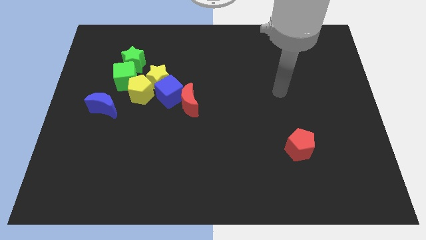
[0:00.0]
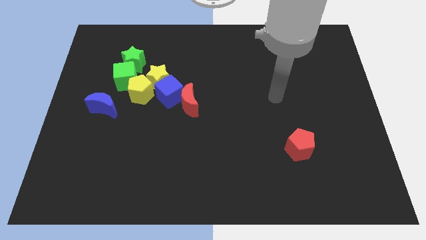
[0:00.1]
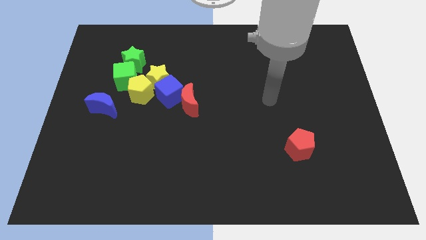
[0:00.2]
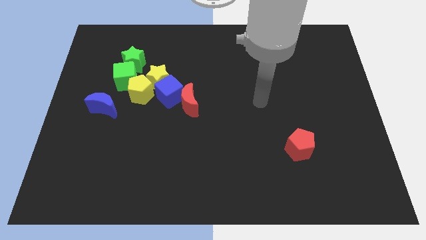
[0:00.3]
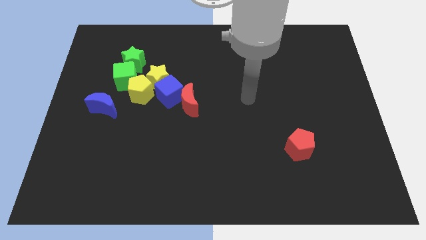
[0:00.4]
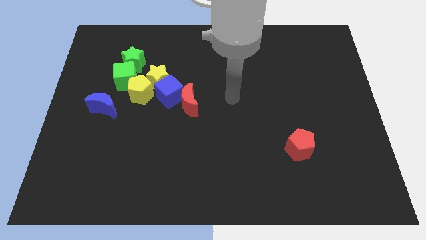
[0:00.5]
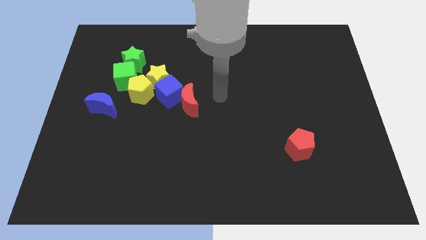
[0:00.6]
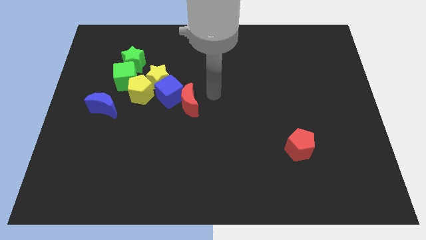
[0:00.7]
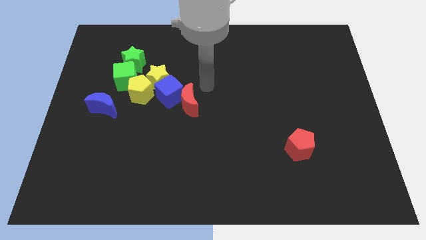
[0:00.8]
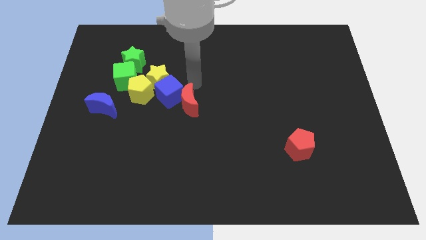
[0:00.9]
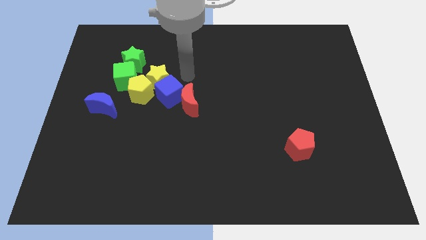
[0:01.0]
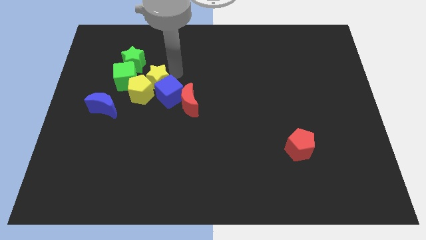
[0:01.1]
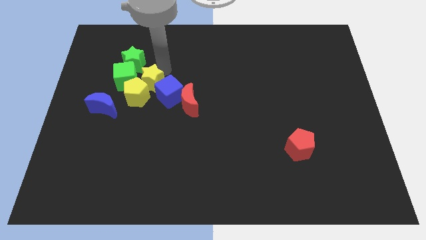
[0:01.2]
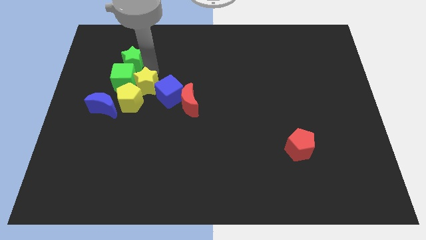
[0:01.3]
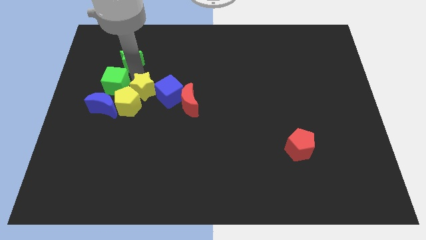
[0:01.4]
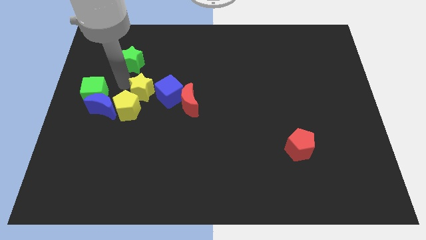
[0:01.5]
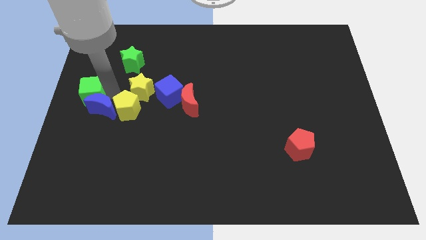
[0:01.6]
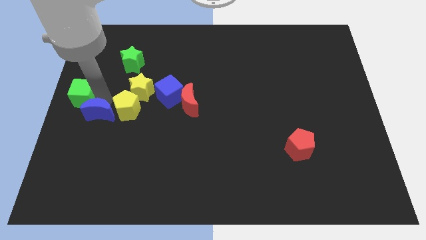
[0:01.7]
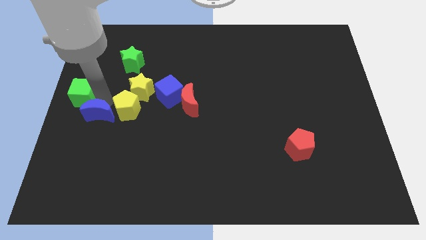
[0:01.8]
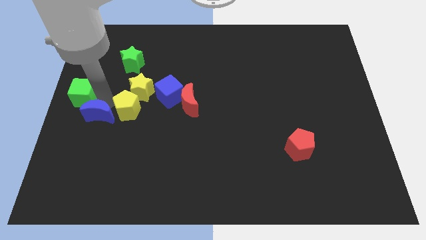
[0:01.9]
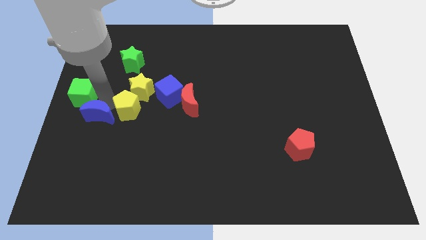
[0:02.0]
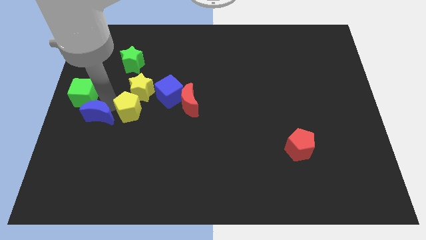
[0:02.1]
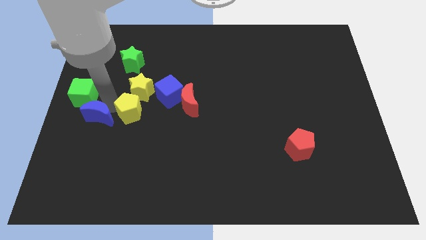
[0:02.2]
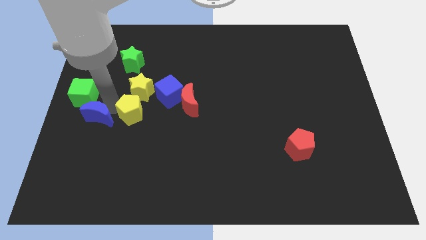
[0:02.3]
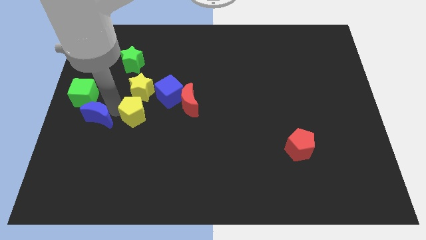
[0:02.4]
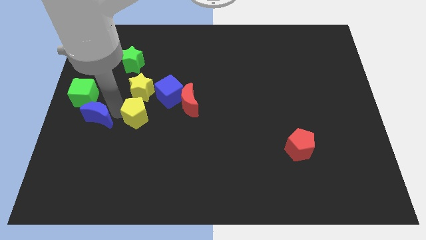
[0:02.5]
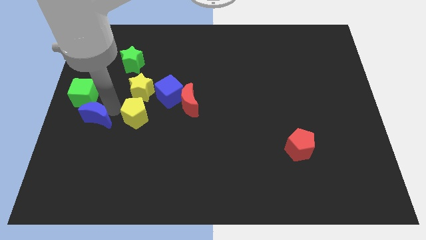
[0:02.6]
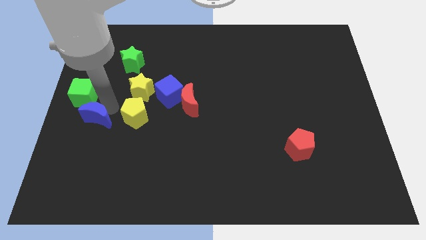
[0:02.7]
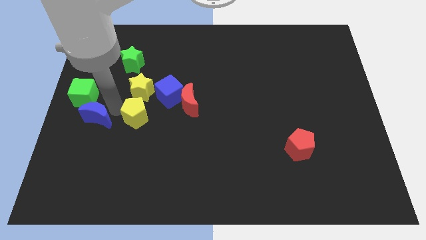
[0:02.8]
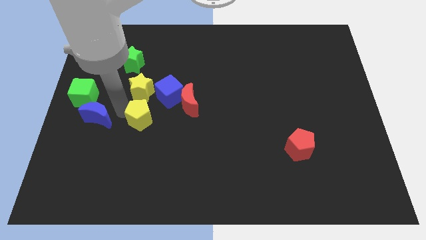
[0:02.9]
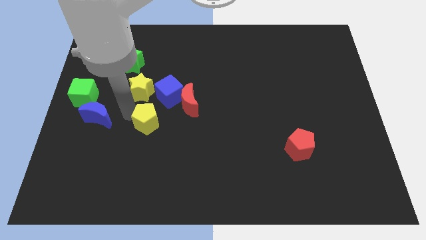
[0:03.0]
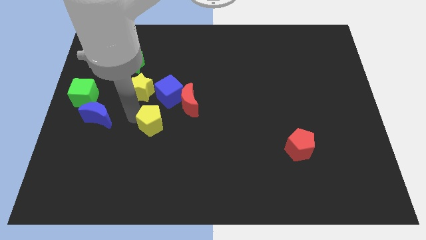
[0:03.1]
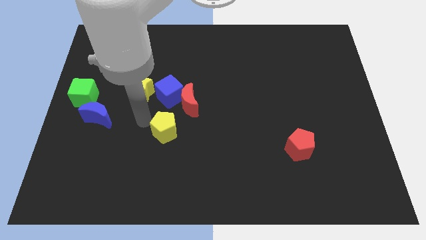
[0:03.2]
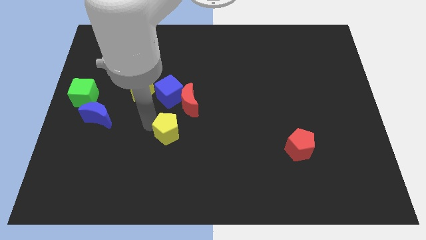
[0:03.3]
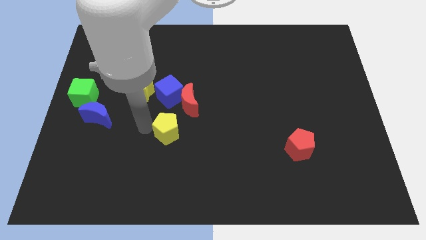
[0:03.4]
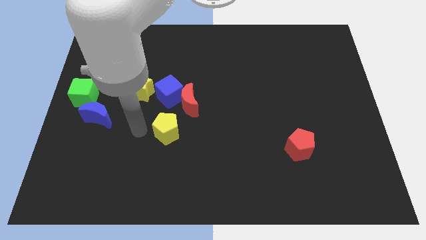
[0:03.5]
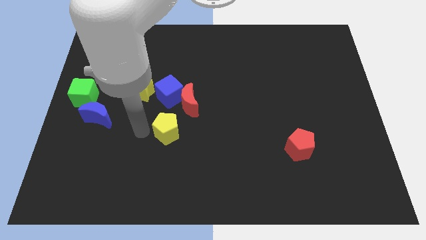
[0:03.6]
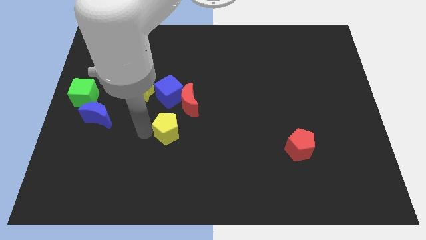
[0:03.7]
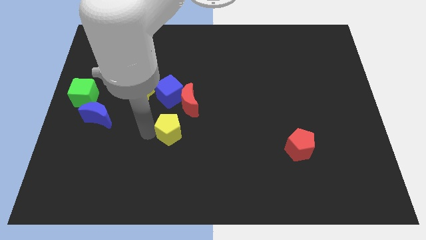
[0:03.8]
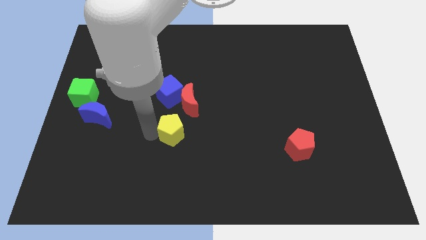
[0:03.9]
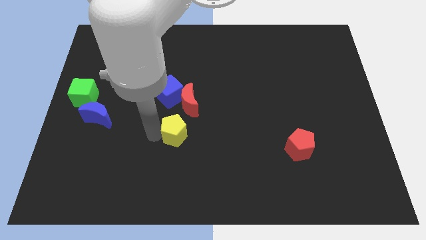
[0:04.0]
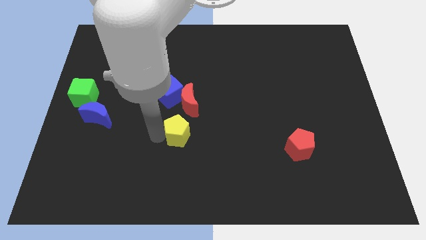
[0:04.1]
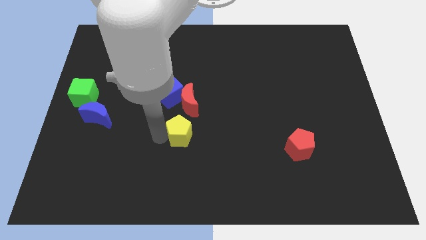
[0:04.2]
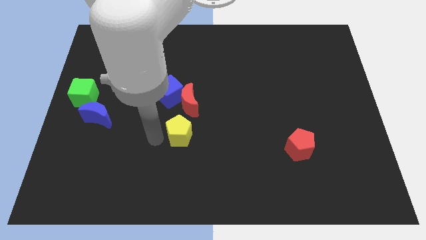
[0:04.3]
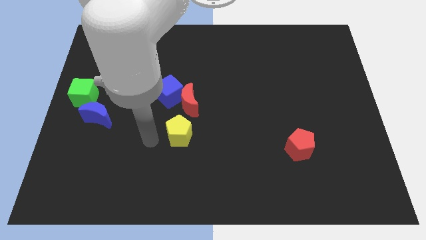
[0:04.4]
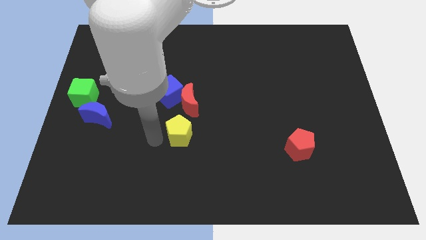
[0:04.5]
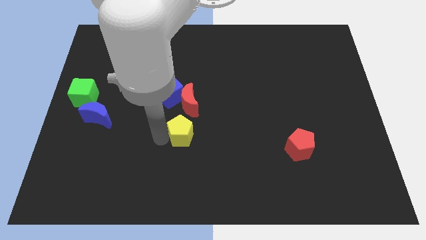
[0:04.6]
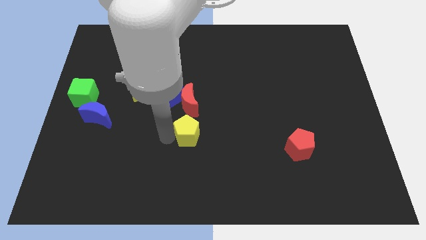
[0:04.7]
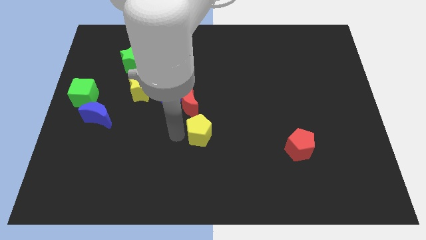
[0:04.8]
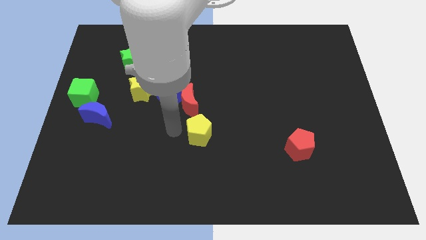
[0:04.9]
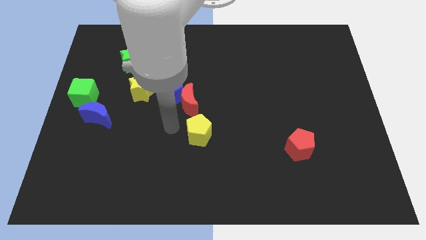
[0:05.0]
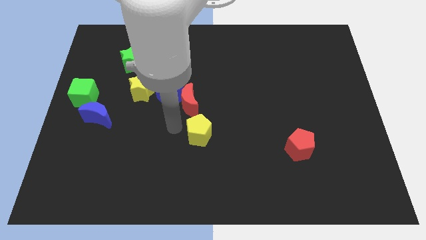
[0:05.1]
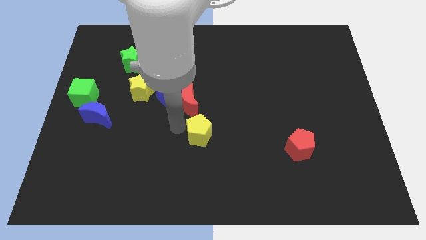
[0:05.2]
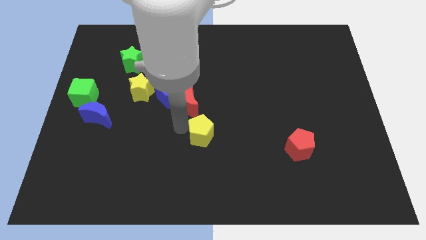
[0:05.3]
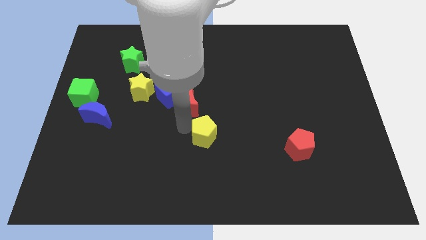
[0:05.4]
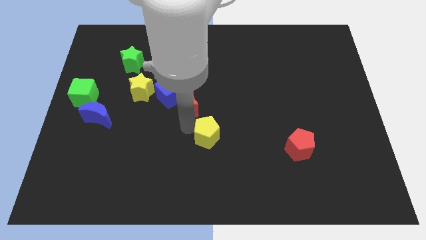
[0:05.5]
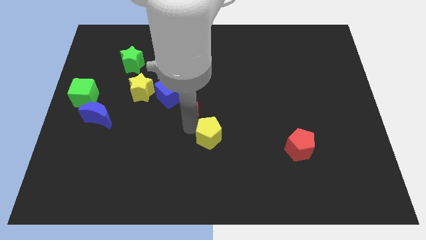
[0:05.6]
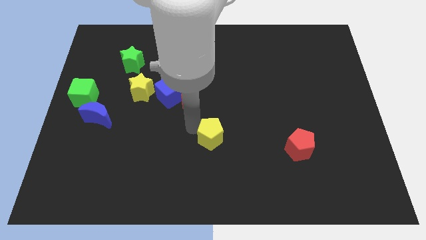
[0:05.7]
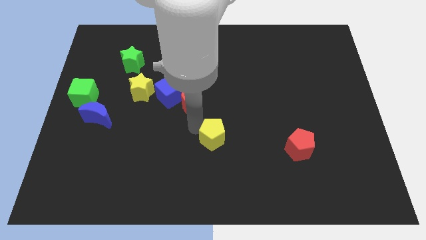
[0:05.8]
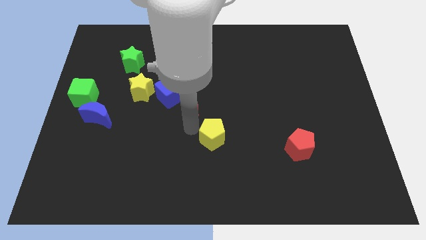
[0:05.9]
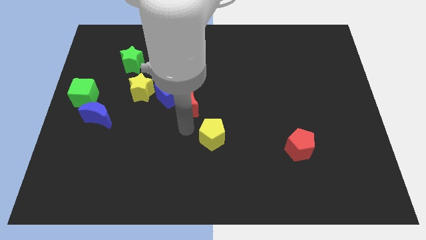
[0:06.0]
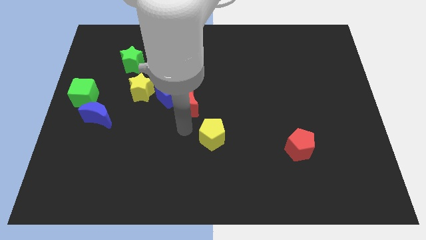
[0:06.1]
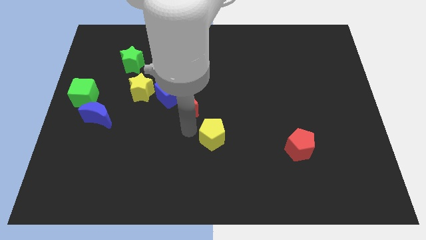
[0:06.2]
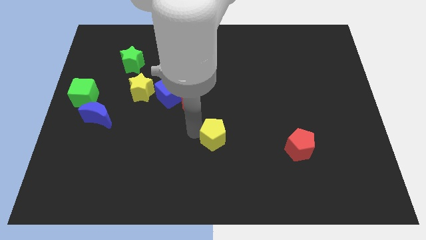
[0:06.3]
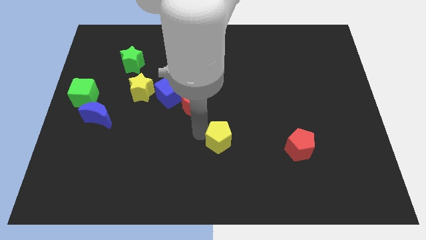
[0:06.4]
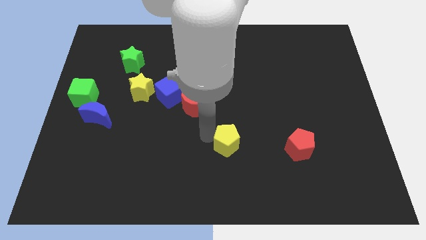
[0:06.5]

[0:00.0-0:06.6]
move the yellow pentagon to the left of the red pentagon

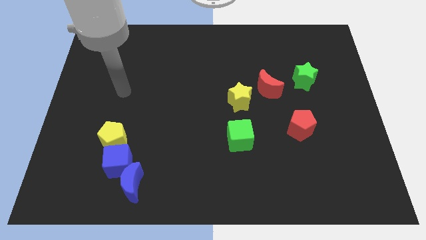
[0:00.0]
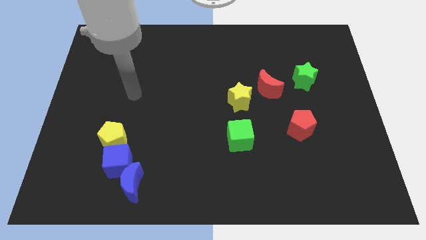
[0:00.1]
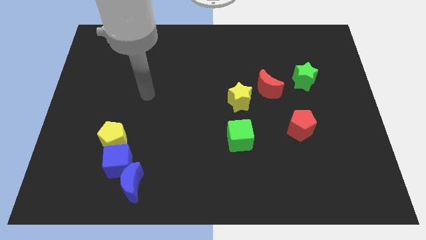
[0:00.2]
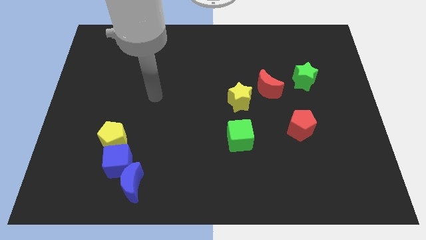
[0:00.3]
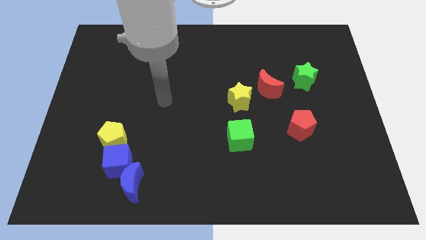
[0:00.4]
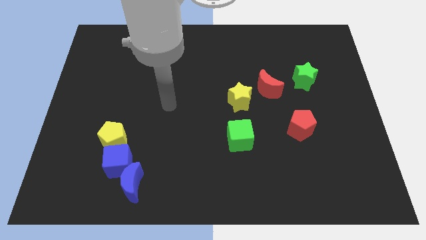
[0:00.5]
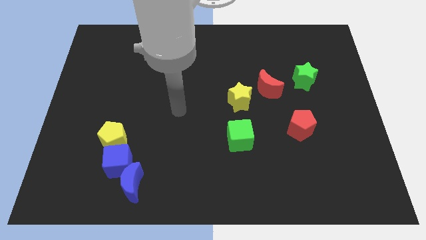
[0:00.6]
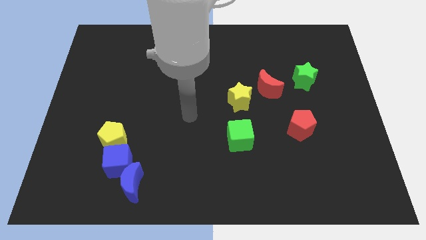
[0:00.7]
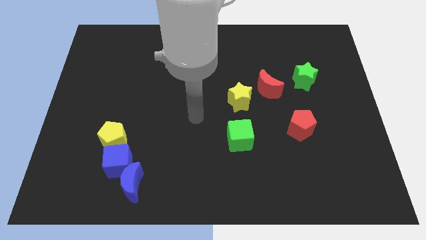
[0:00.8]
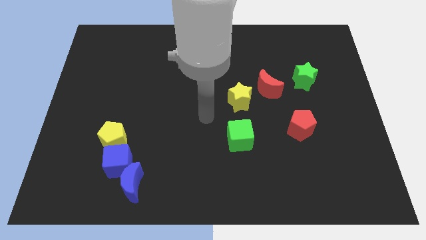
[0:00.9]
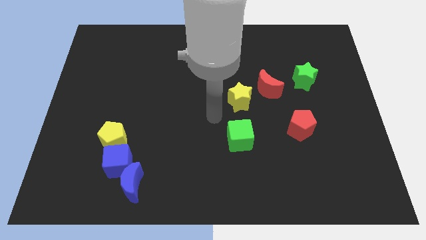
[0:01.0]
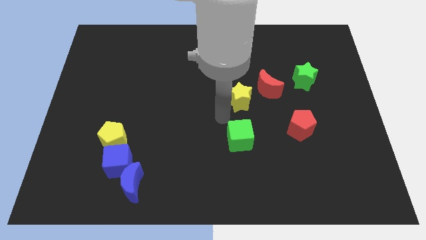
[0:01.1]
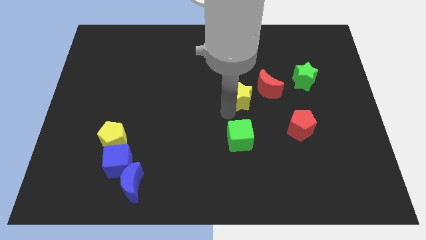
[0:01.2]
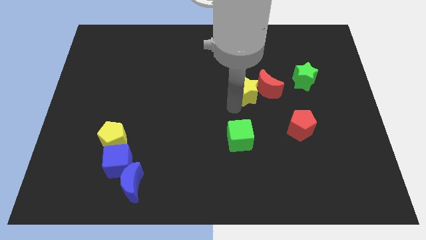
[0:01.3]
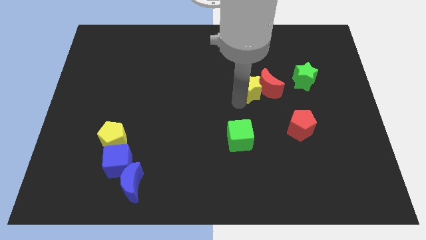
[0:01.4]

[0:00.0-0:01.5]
move the yellow star just left of the green star
